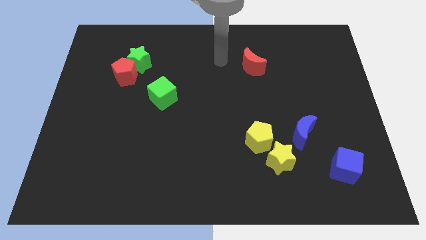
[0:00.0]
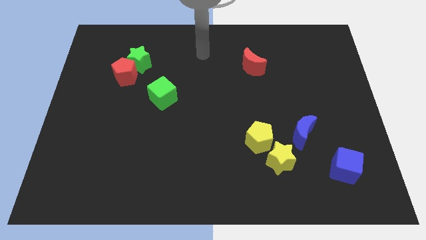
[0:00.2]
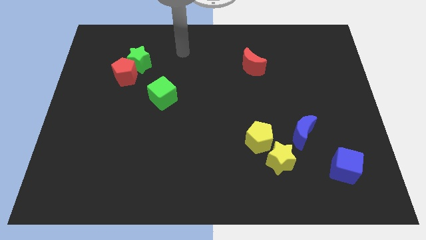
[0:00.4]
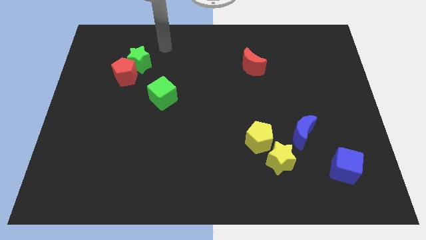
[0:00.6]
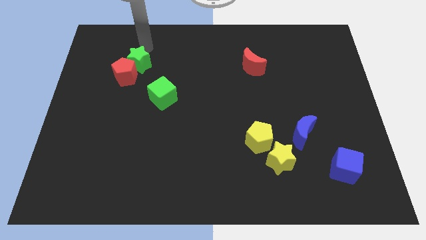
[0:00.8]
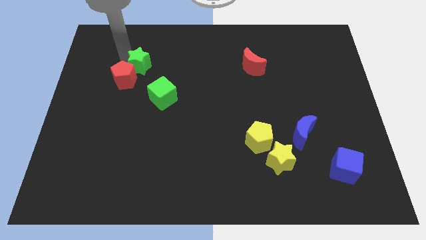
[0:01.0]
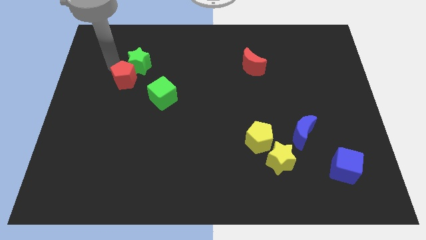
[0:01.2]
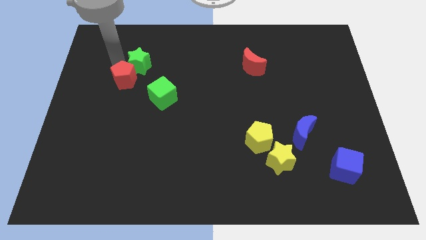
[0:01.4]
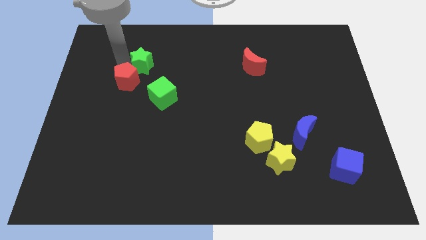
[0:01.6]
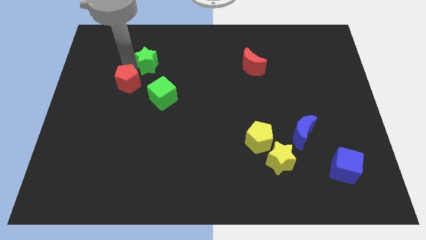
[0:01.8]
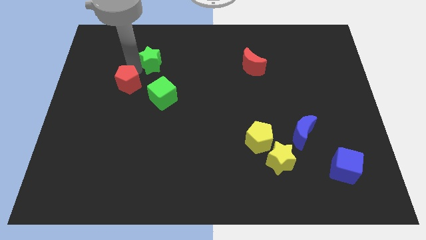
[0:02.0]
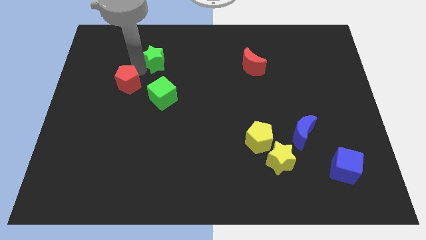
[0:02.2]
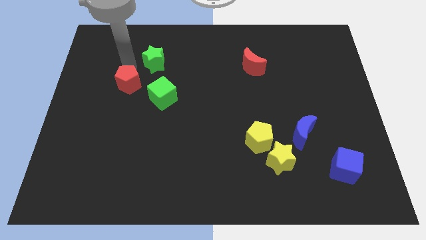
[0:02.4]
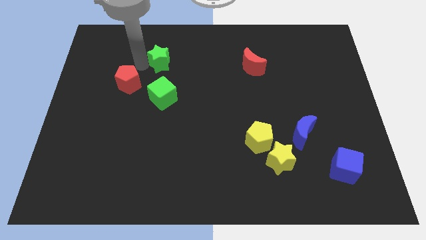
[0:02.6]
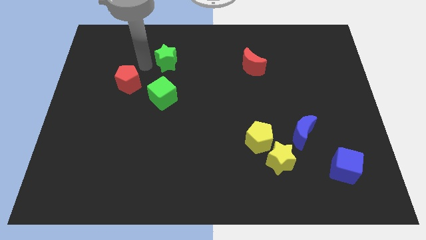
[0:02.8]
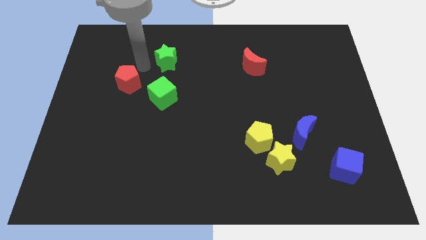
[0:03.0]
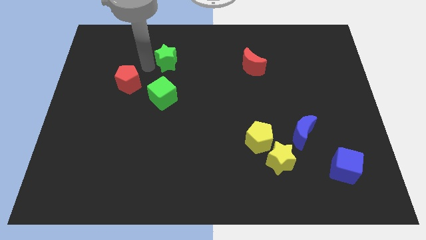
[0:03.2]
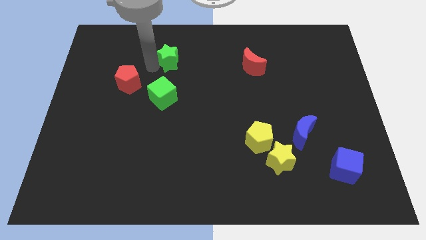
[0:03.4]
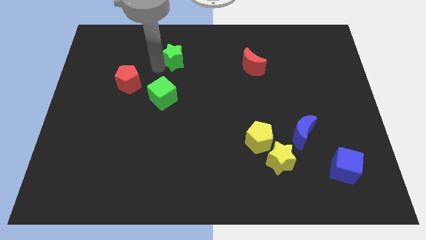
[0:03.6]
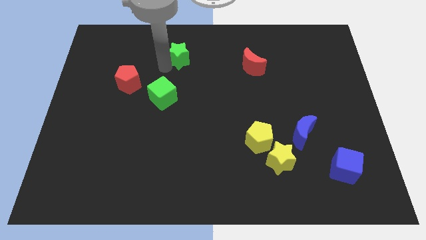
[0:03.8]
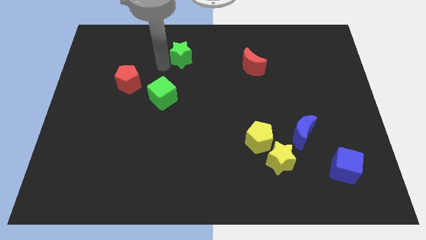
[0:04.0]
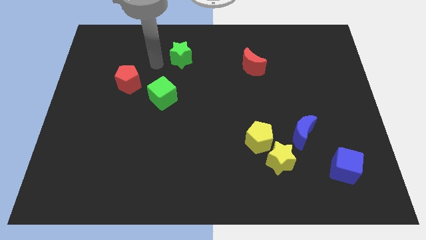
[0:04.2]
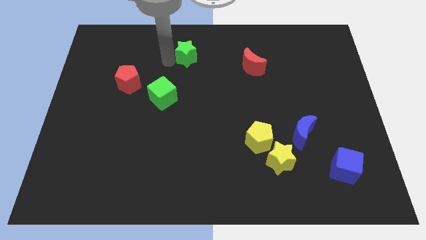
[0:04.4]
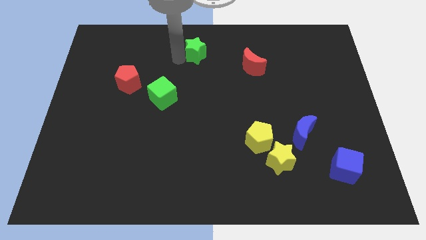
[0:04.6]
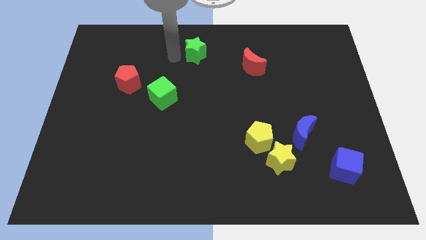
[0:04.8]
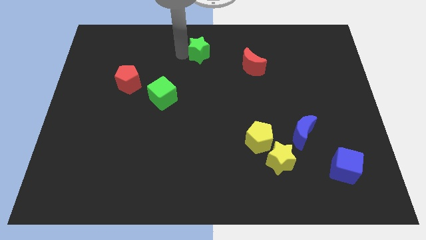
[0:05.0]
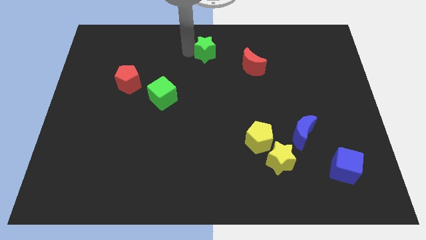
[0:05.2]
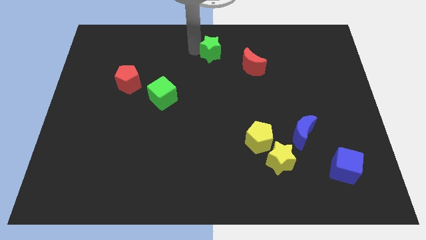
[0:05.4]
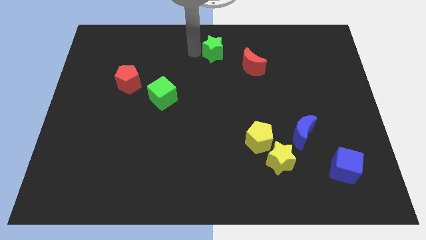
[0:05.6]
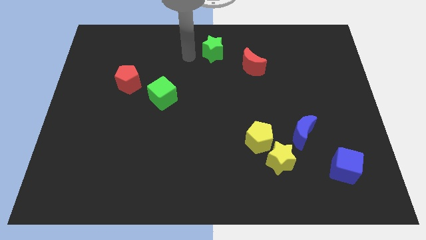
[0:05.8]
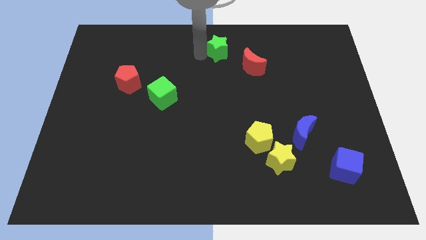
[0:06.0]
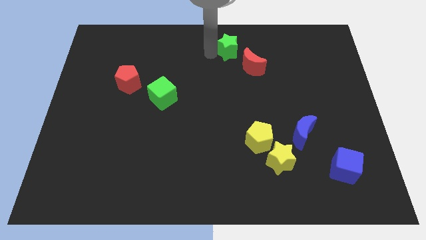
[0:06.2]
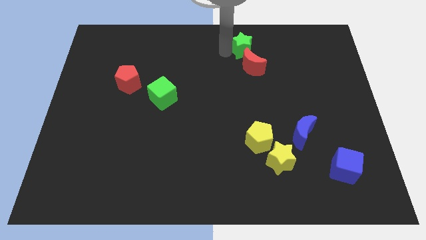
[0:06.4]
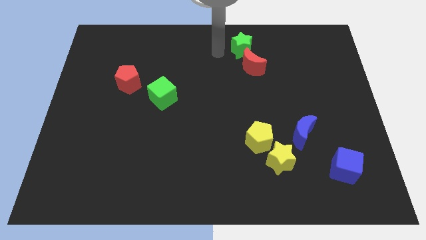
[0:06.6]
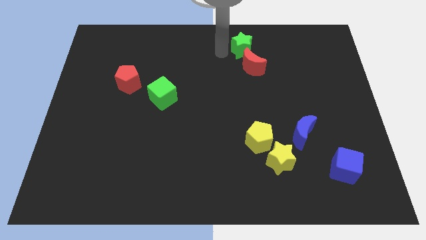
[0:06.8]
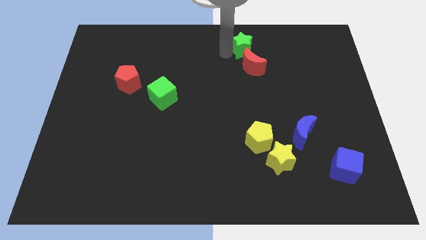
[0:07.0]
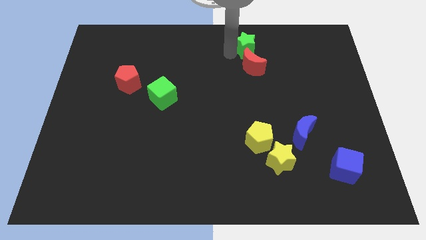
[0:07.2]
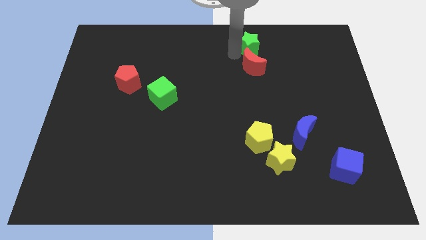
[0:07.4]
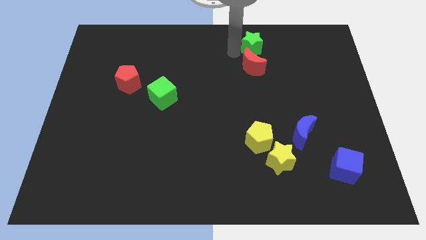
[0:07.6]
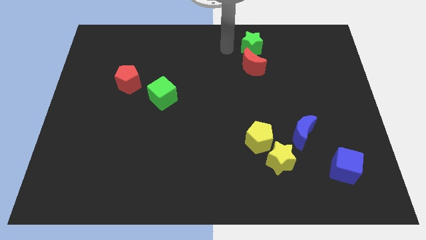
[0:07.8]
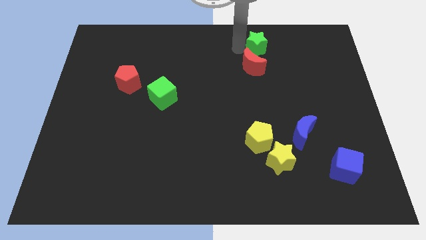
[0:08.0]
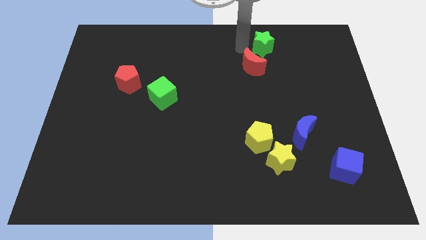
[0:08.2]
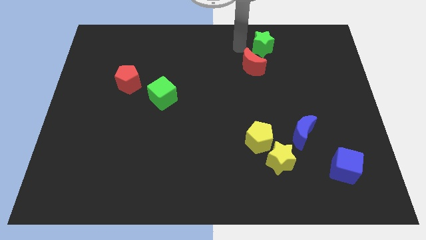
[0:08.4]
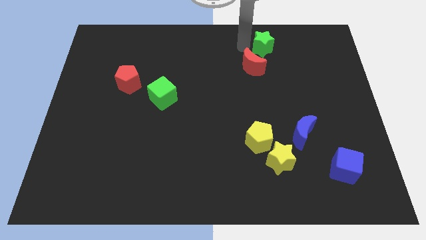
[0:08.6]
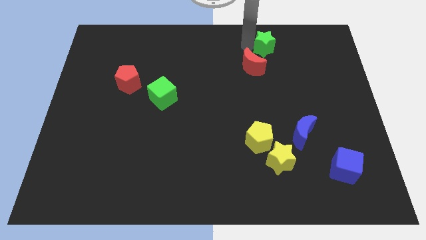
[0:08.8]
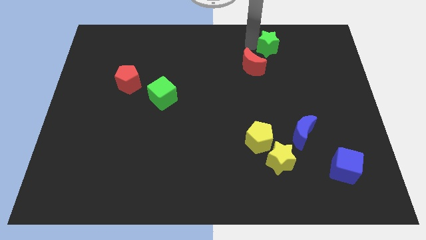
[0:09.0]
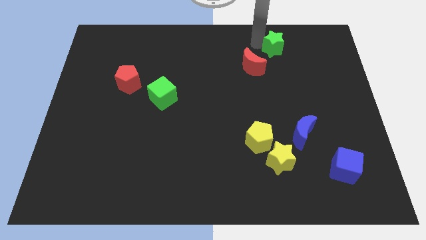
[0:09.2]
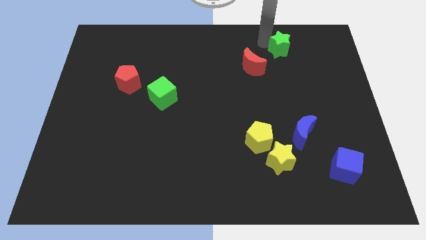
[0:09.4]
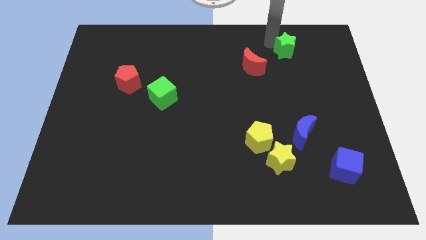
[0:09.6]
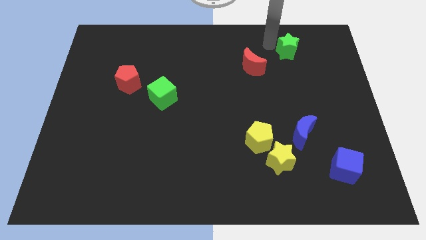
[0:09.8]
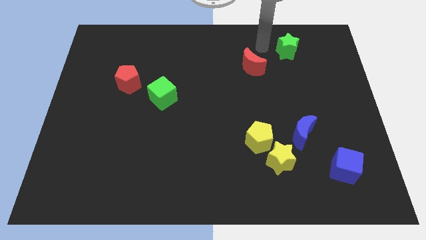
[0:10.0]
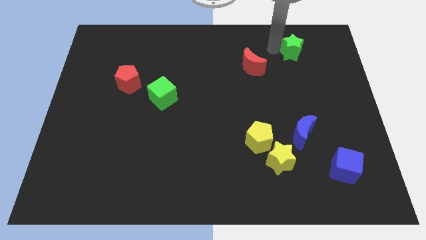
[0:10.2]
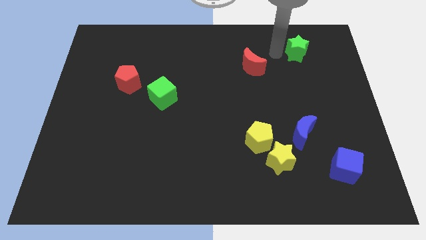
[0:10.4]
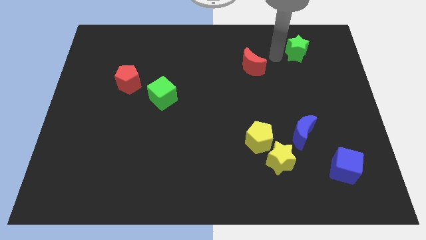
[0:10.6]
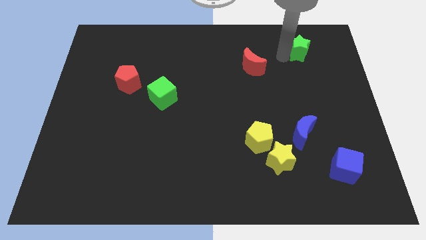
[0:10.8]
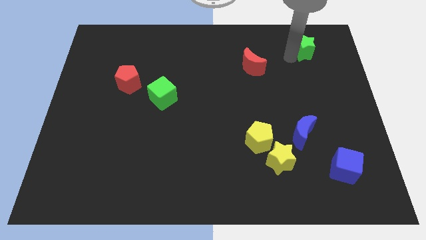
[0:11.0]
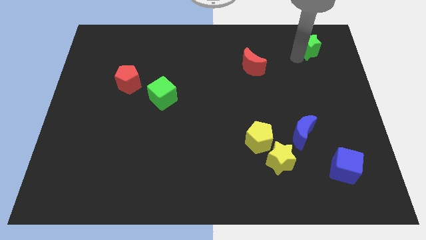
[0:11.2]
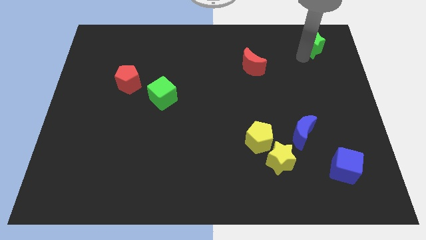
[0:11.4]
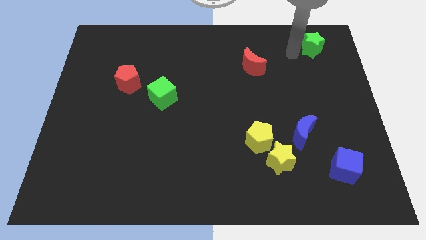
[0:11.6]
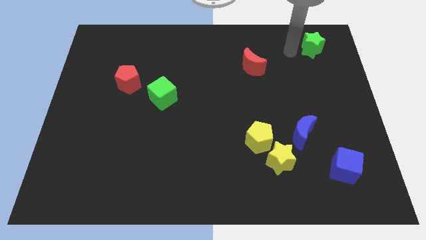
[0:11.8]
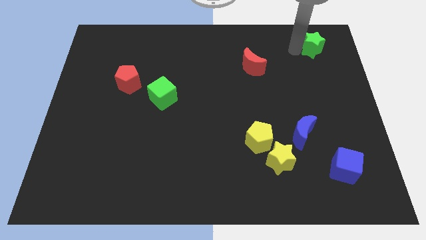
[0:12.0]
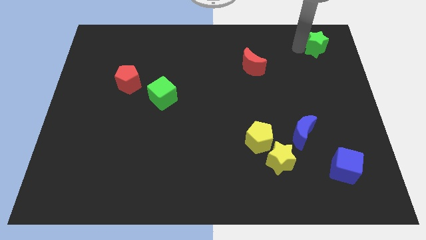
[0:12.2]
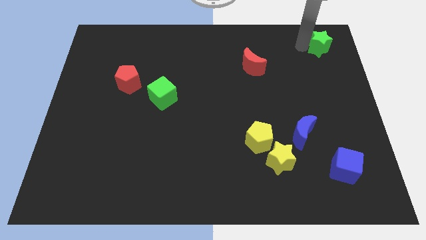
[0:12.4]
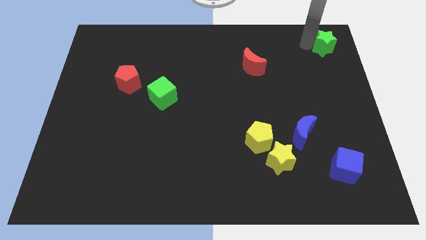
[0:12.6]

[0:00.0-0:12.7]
slide the green star to the top right of the board

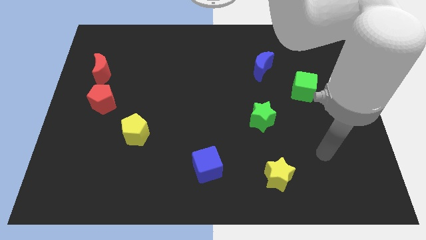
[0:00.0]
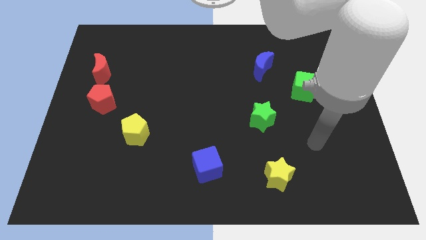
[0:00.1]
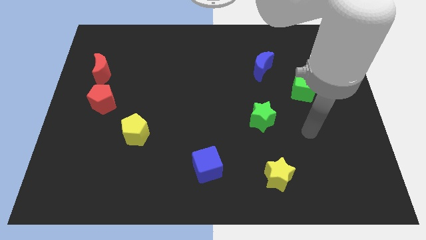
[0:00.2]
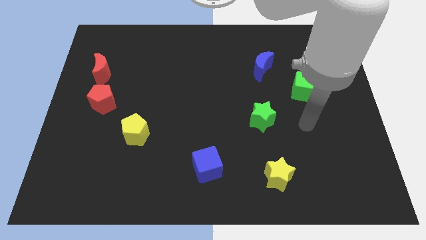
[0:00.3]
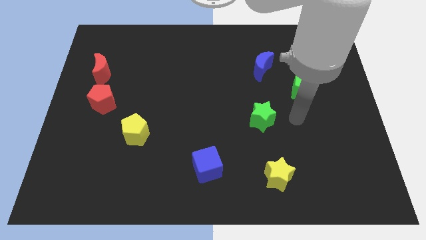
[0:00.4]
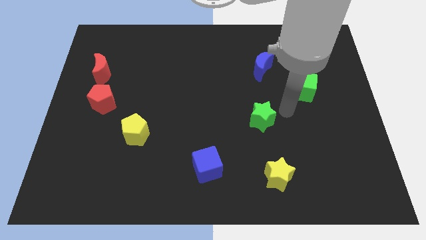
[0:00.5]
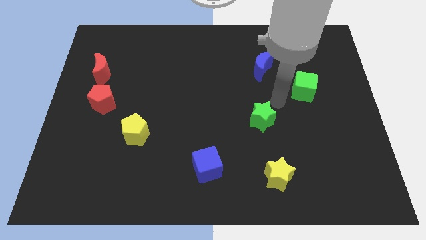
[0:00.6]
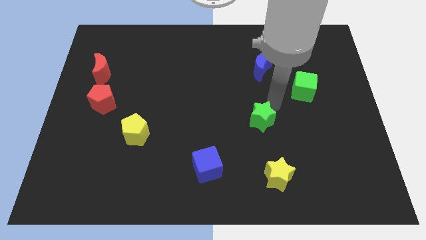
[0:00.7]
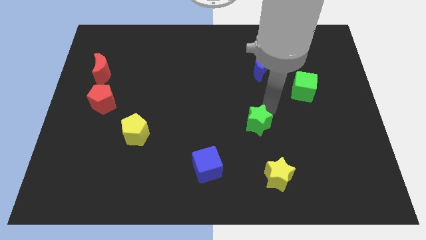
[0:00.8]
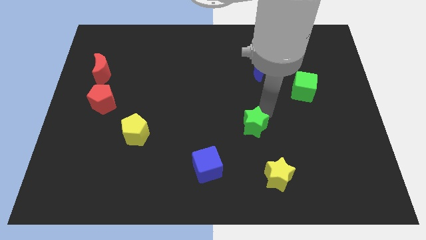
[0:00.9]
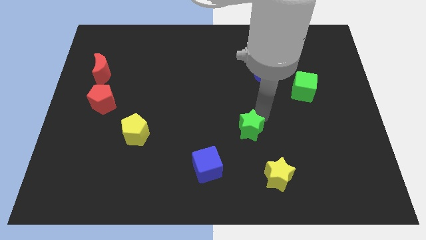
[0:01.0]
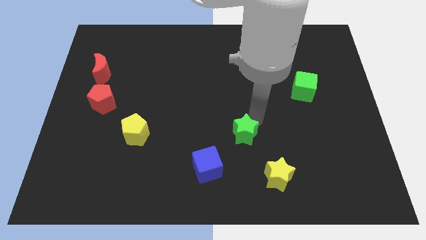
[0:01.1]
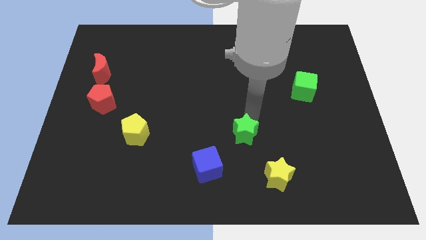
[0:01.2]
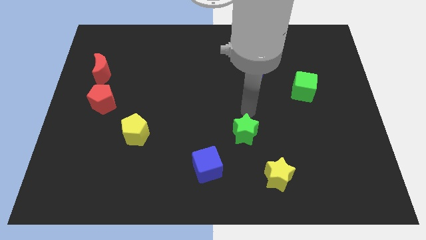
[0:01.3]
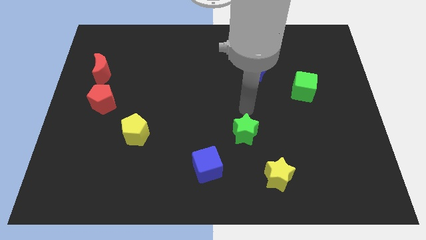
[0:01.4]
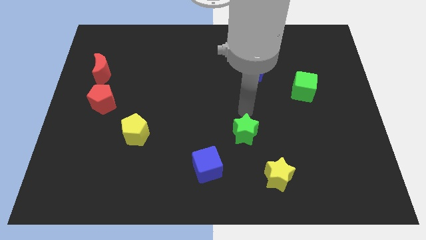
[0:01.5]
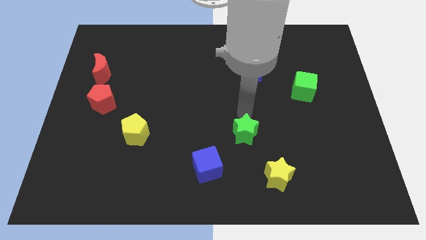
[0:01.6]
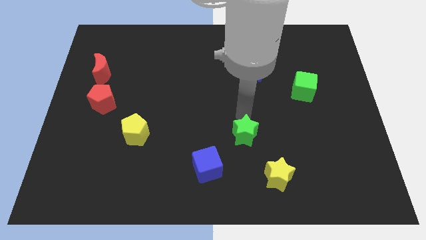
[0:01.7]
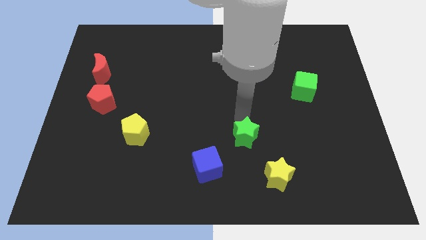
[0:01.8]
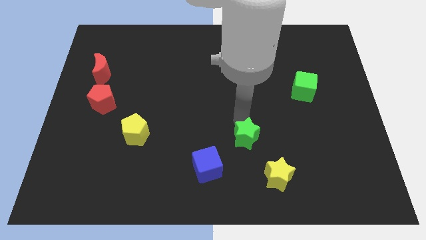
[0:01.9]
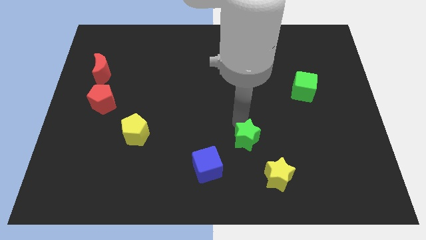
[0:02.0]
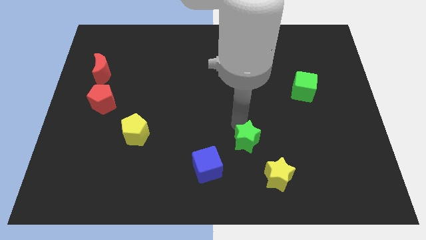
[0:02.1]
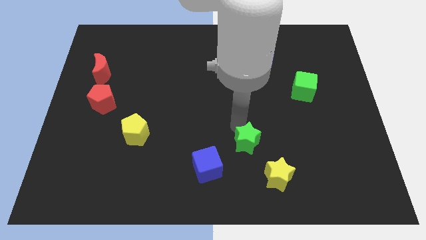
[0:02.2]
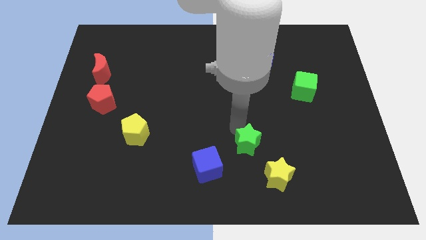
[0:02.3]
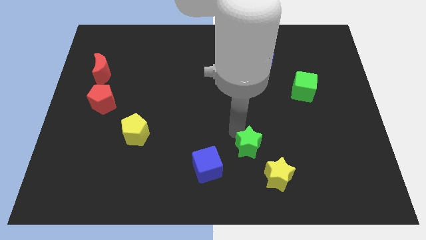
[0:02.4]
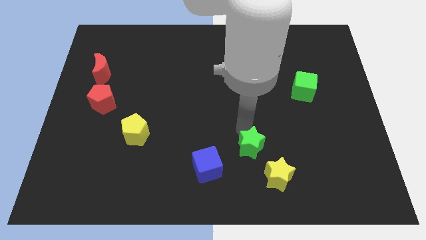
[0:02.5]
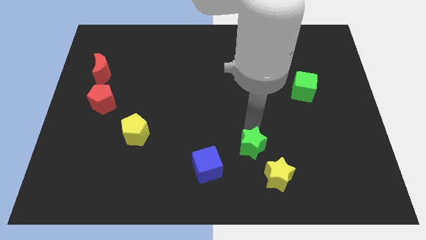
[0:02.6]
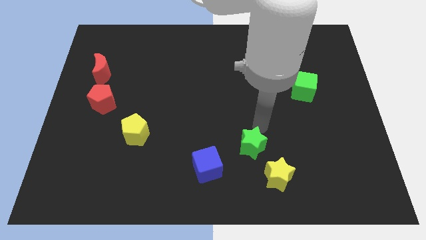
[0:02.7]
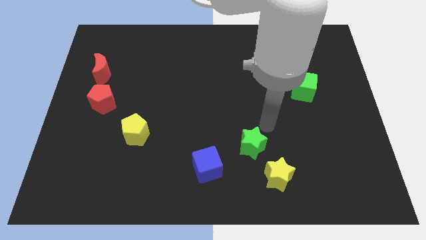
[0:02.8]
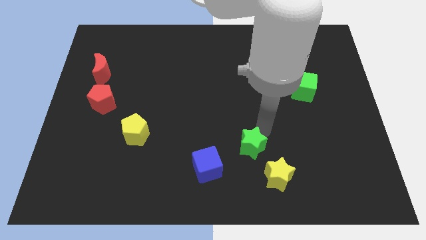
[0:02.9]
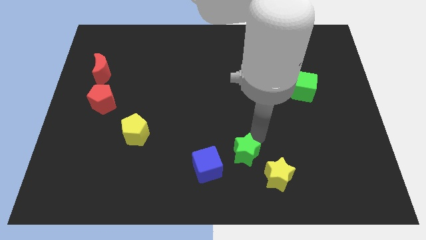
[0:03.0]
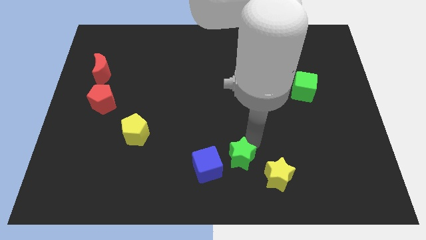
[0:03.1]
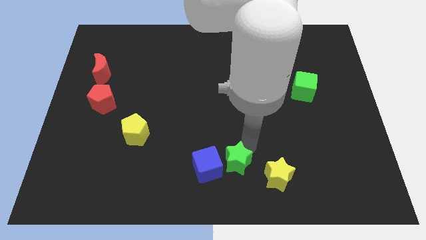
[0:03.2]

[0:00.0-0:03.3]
put the green star to the bottom
